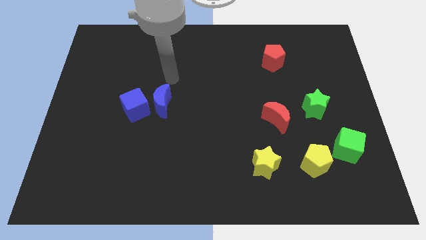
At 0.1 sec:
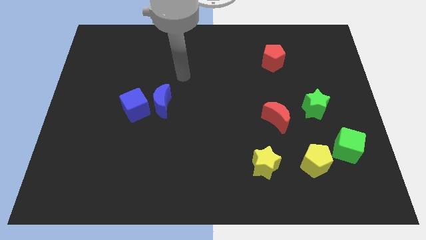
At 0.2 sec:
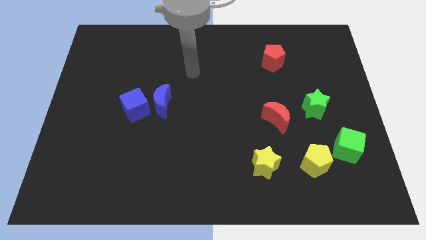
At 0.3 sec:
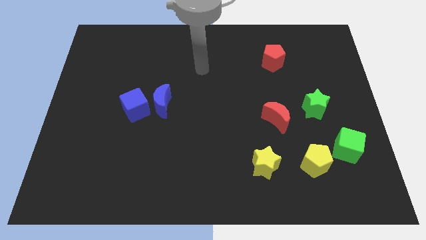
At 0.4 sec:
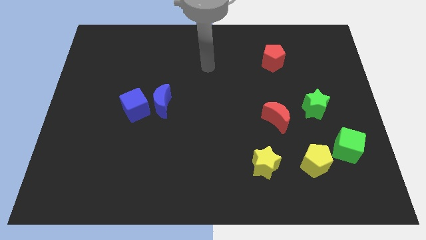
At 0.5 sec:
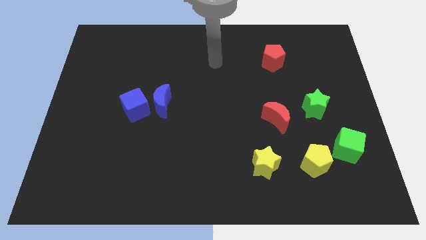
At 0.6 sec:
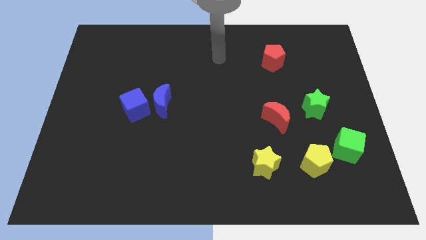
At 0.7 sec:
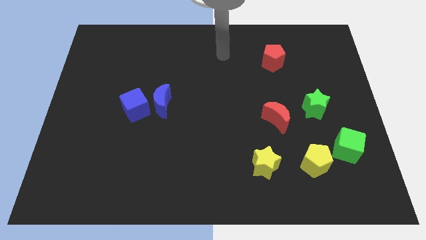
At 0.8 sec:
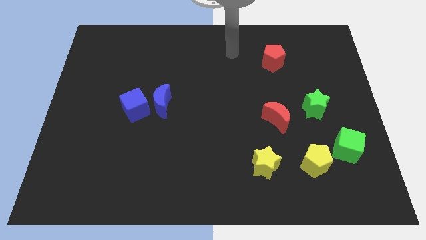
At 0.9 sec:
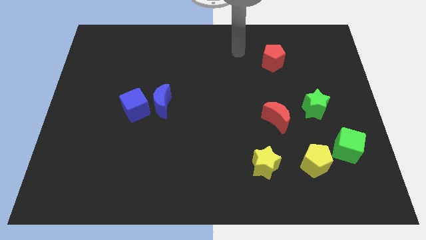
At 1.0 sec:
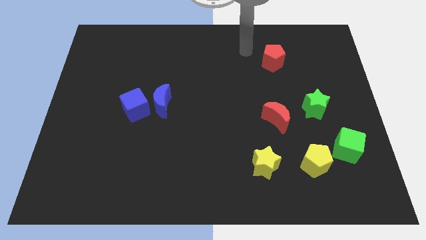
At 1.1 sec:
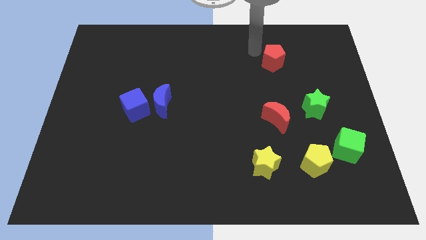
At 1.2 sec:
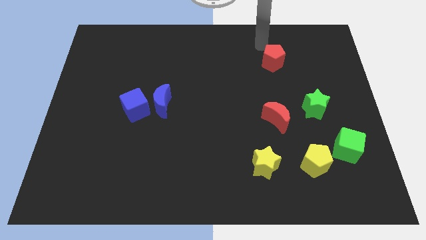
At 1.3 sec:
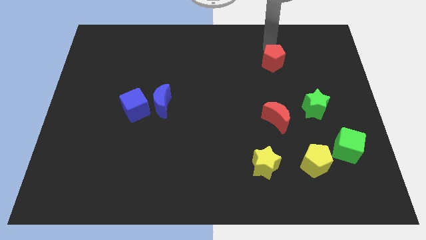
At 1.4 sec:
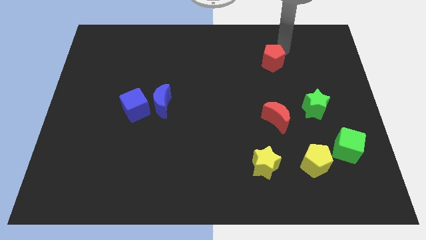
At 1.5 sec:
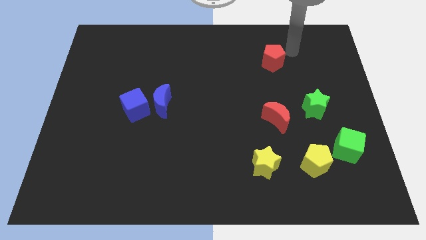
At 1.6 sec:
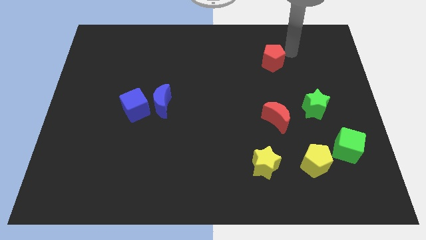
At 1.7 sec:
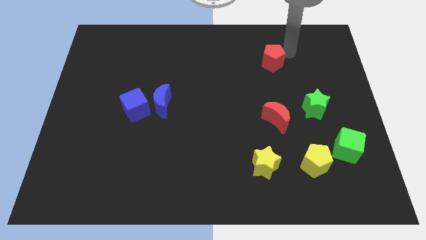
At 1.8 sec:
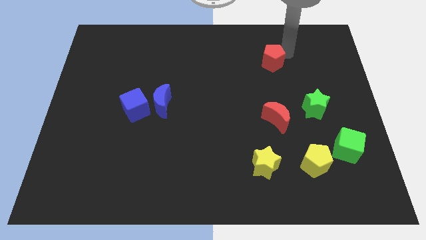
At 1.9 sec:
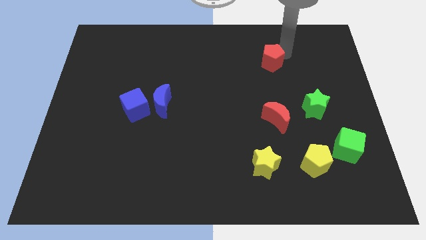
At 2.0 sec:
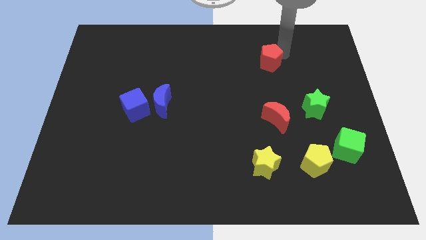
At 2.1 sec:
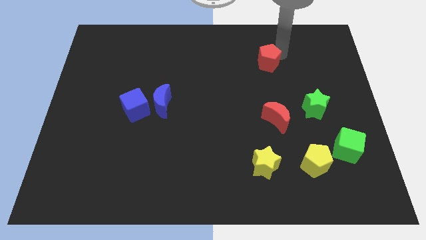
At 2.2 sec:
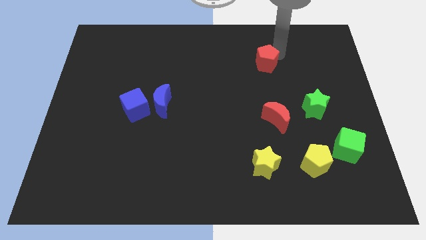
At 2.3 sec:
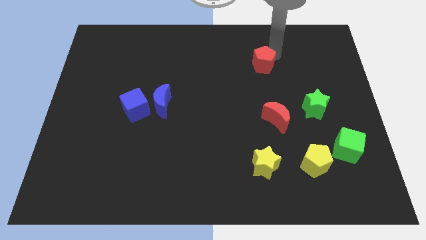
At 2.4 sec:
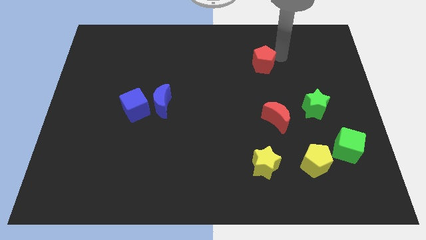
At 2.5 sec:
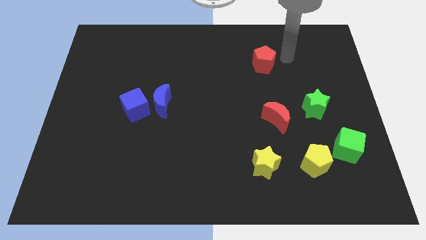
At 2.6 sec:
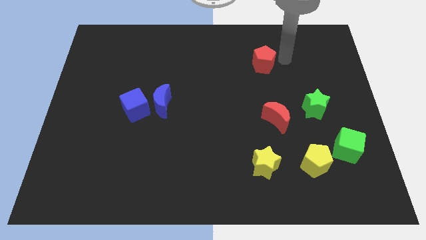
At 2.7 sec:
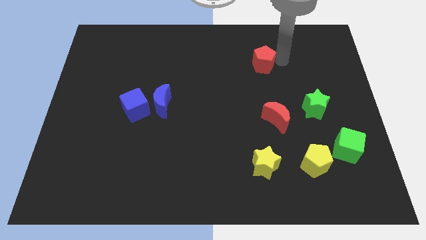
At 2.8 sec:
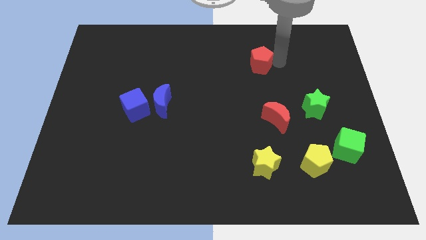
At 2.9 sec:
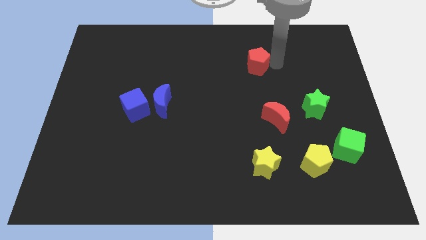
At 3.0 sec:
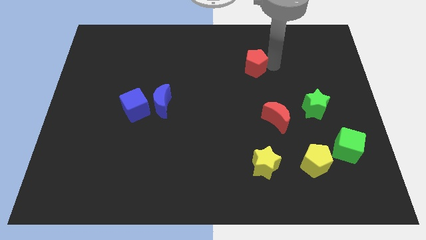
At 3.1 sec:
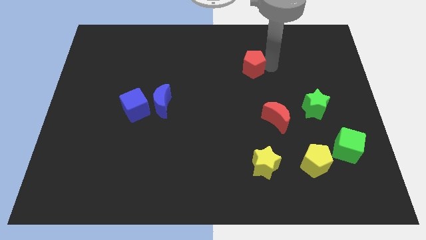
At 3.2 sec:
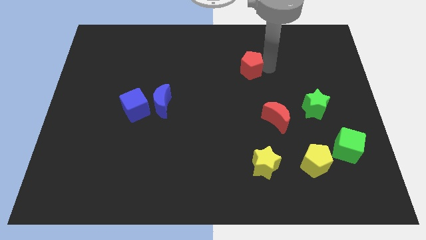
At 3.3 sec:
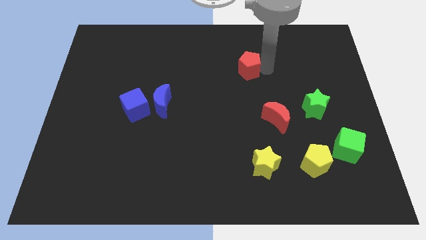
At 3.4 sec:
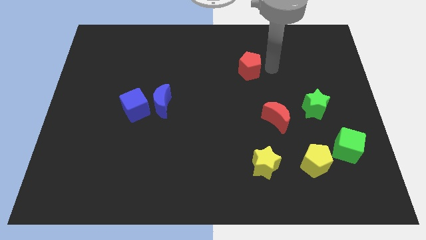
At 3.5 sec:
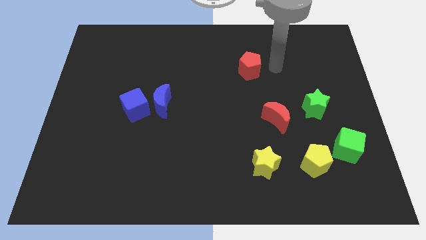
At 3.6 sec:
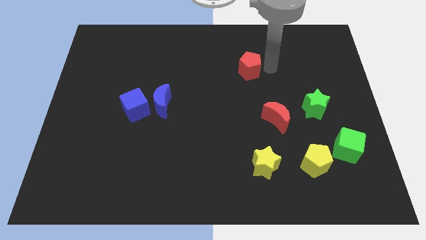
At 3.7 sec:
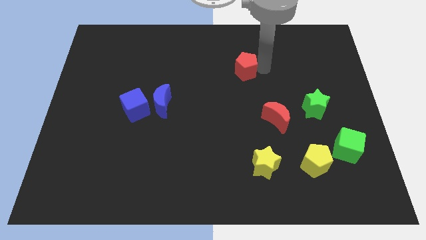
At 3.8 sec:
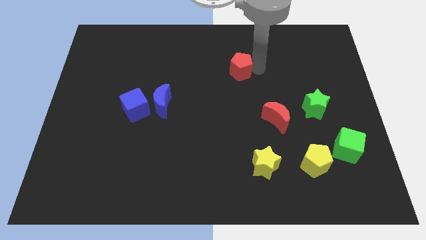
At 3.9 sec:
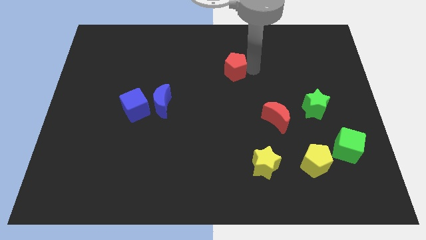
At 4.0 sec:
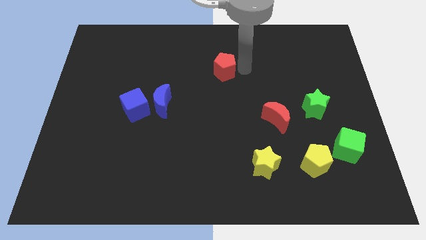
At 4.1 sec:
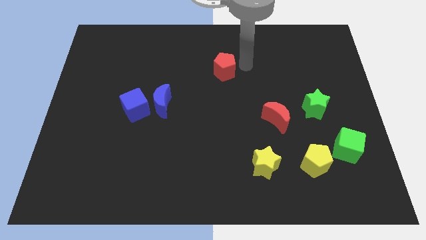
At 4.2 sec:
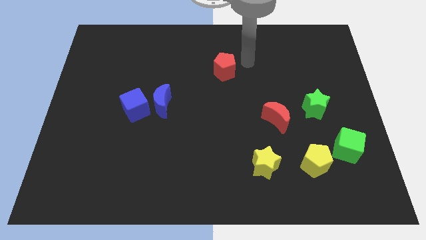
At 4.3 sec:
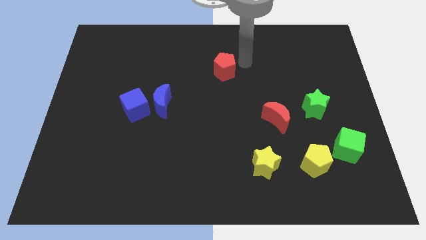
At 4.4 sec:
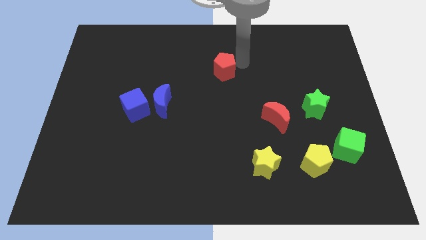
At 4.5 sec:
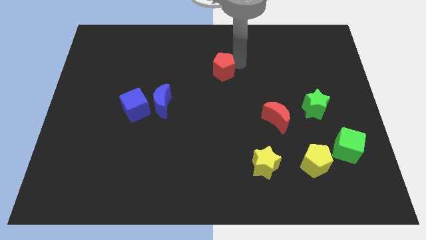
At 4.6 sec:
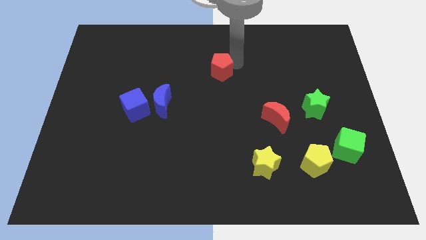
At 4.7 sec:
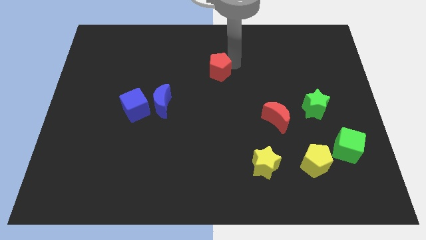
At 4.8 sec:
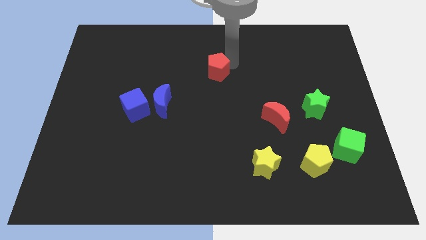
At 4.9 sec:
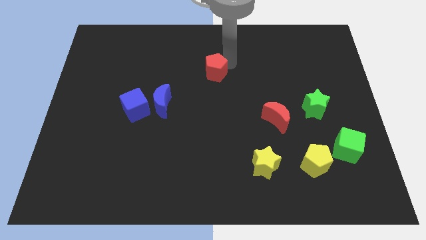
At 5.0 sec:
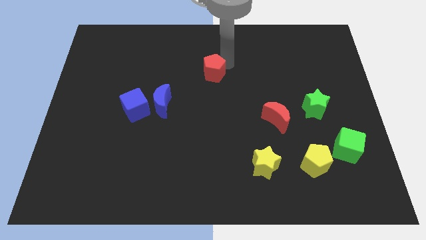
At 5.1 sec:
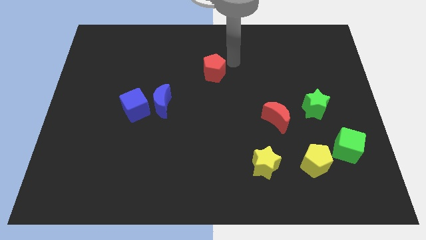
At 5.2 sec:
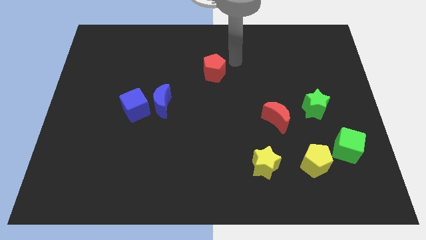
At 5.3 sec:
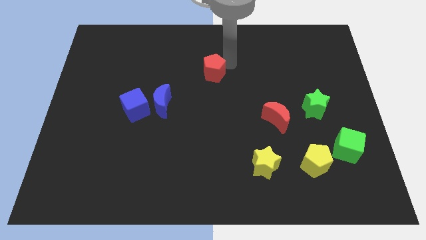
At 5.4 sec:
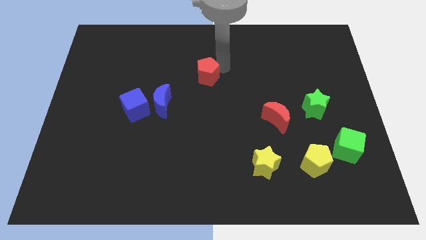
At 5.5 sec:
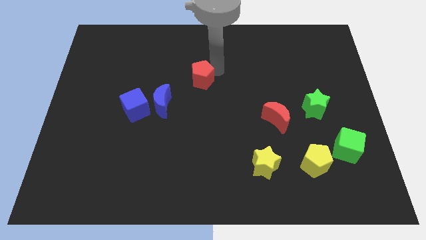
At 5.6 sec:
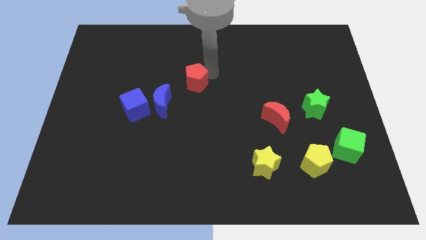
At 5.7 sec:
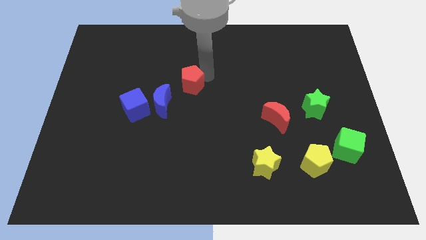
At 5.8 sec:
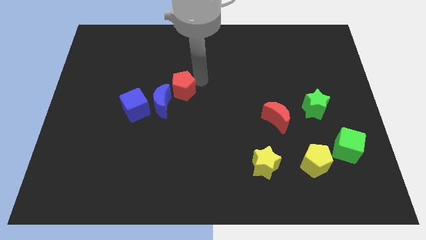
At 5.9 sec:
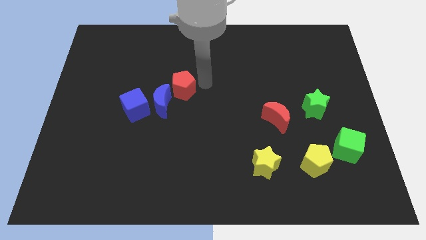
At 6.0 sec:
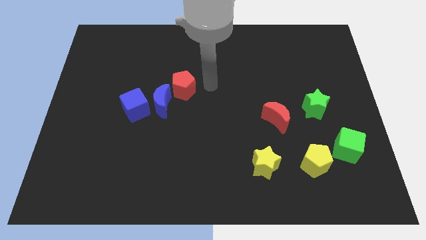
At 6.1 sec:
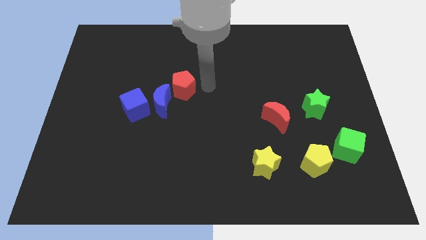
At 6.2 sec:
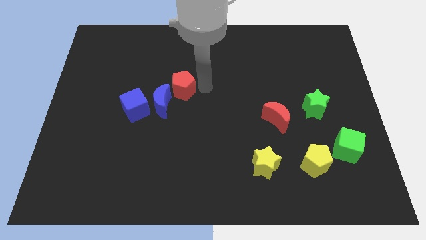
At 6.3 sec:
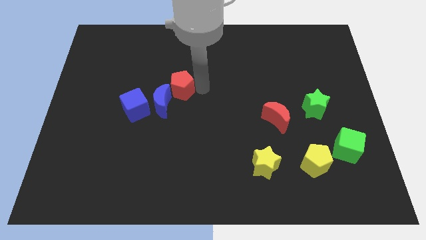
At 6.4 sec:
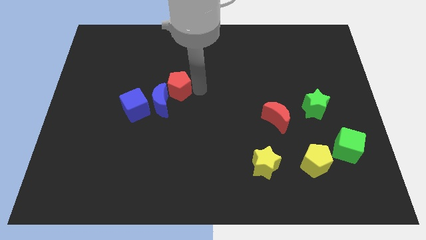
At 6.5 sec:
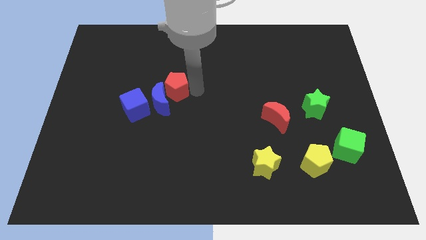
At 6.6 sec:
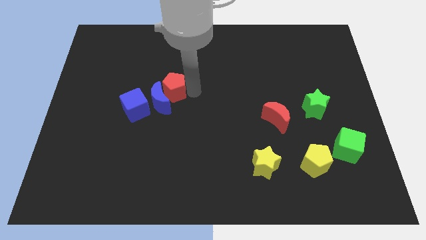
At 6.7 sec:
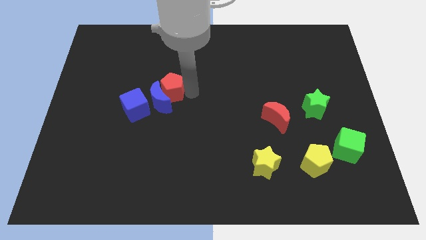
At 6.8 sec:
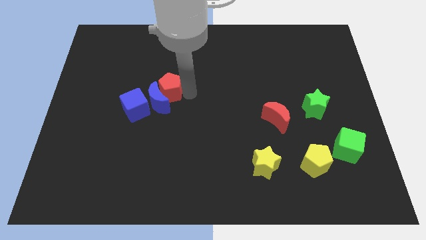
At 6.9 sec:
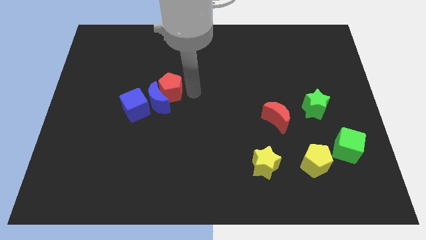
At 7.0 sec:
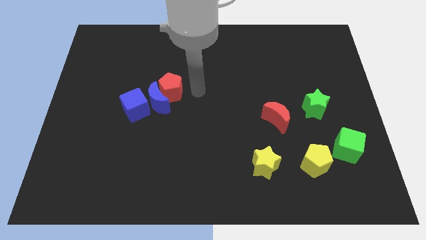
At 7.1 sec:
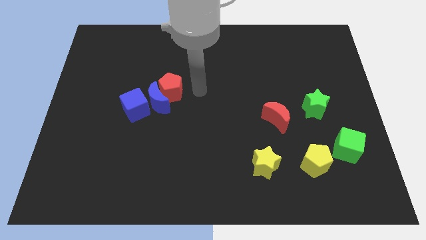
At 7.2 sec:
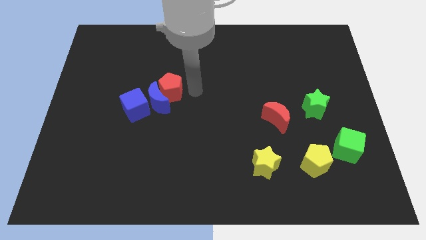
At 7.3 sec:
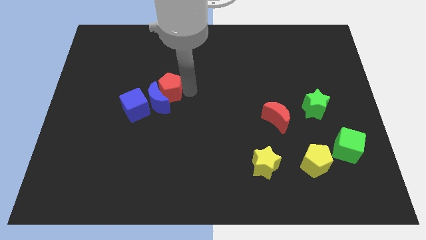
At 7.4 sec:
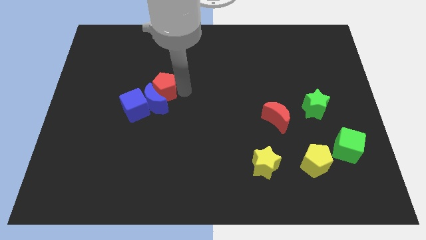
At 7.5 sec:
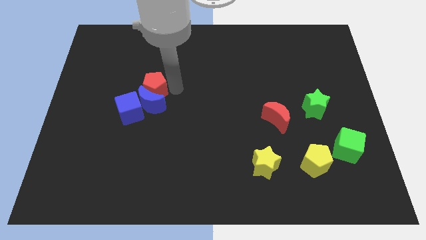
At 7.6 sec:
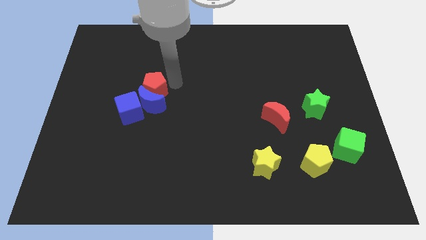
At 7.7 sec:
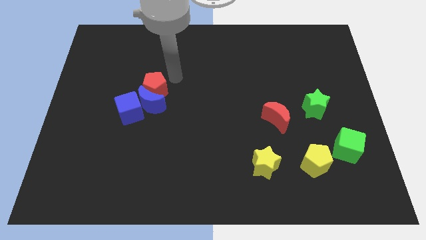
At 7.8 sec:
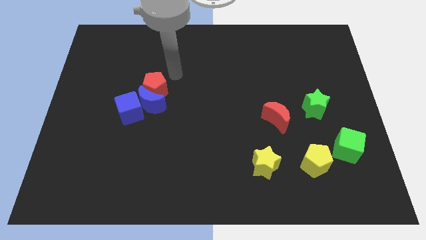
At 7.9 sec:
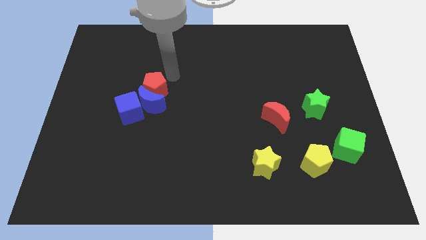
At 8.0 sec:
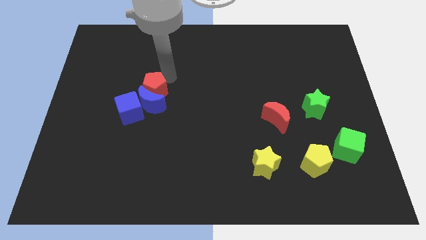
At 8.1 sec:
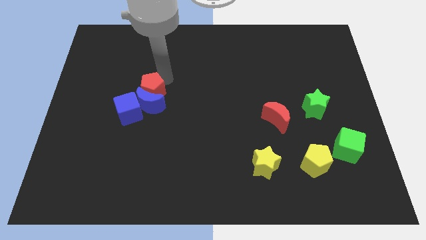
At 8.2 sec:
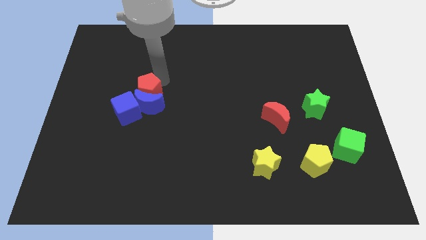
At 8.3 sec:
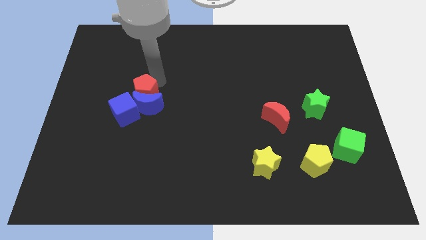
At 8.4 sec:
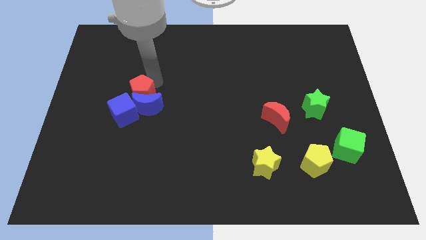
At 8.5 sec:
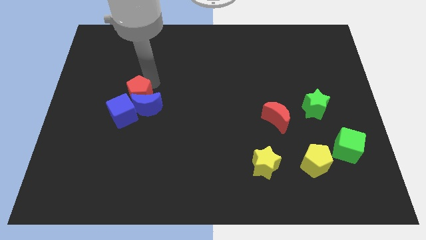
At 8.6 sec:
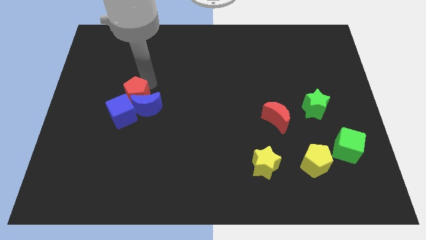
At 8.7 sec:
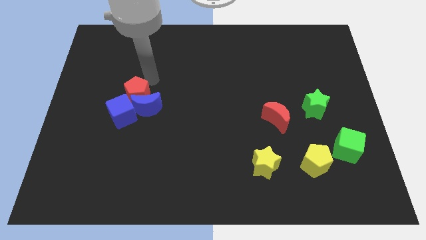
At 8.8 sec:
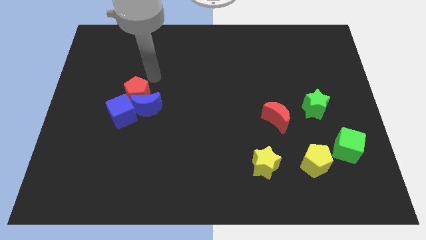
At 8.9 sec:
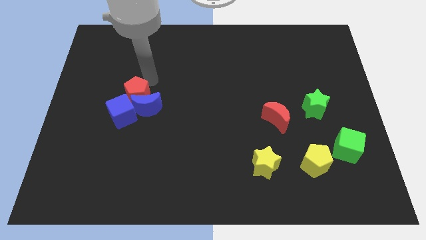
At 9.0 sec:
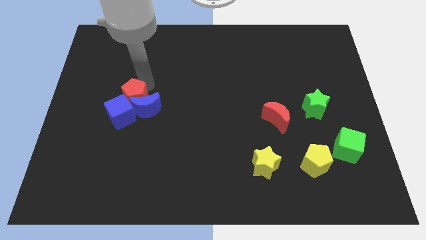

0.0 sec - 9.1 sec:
slide the red pentagon next to the blue cube
